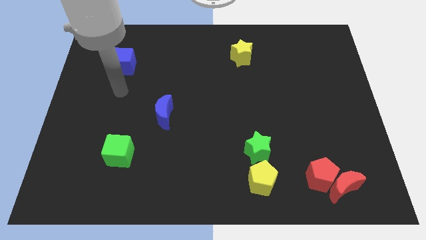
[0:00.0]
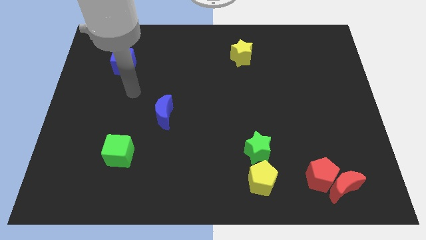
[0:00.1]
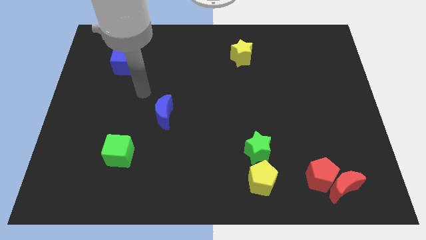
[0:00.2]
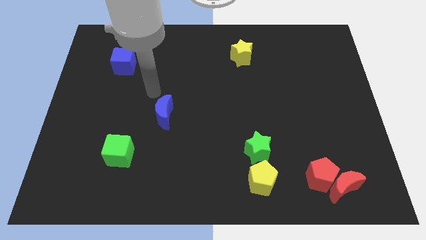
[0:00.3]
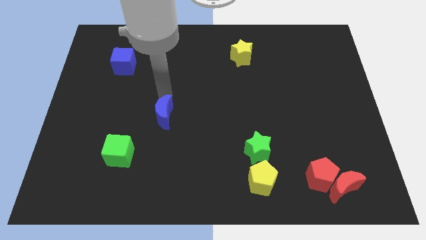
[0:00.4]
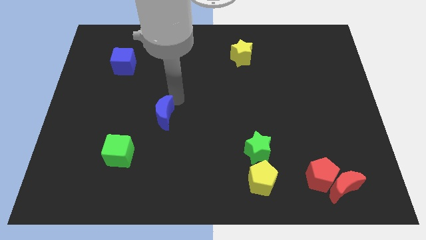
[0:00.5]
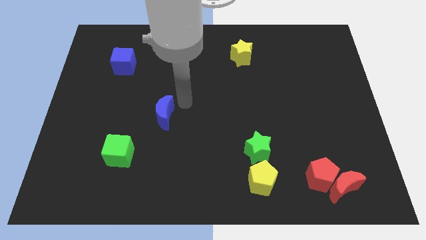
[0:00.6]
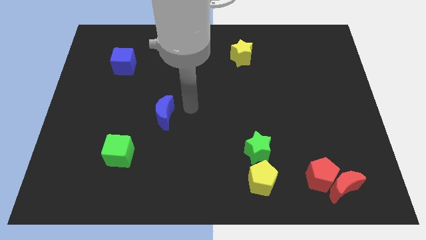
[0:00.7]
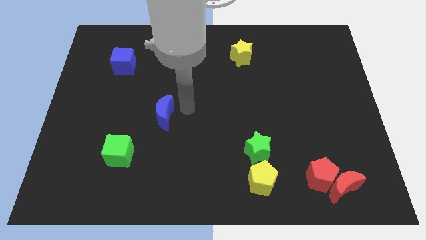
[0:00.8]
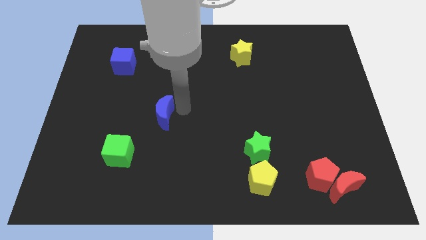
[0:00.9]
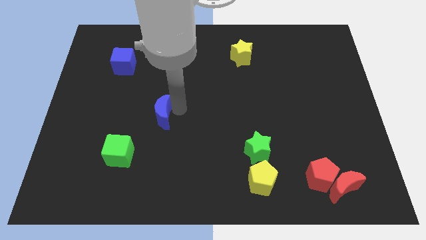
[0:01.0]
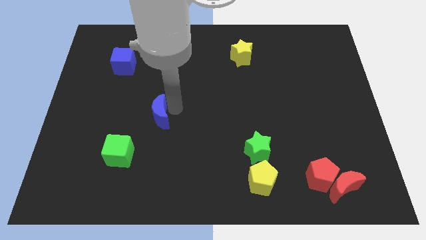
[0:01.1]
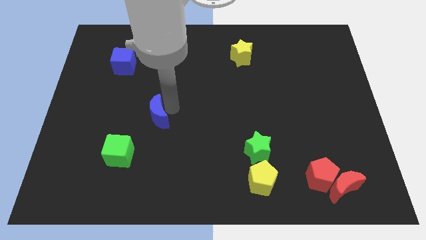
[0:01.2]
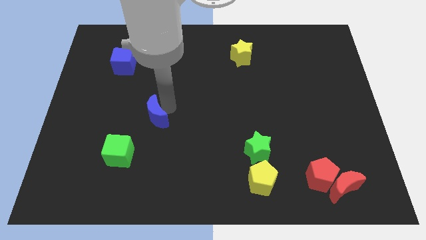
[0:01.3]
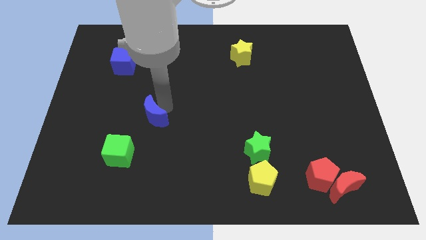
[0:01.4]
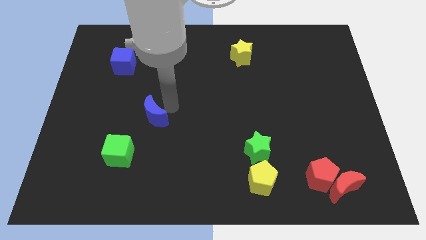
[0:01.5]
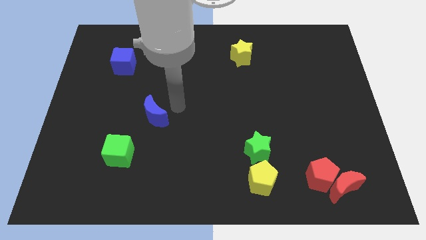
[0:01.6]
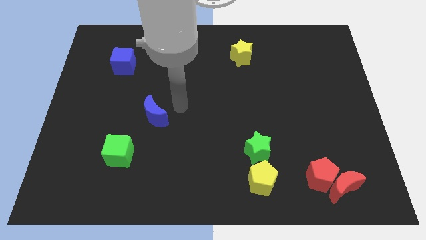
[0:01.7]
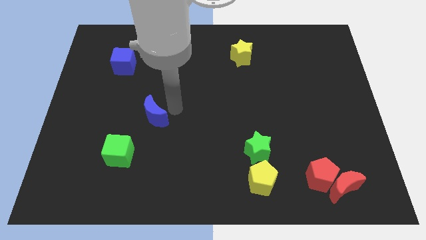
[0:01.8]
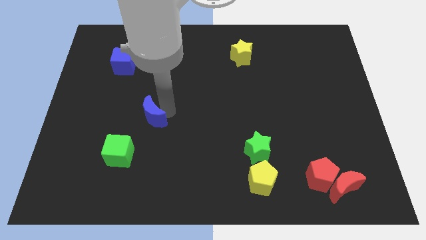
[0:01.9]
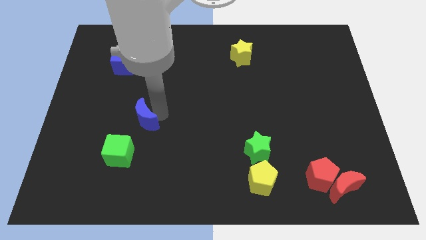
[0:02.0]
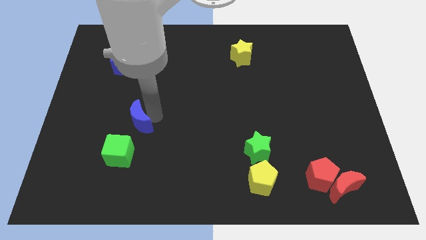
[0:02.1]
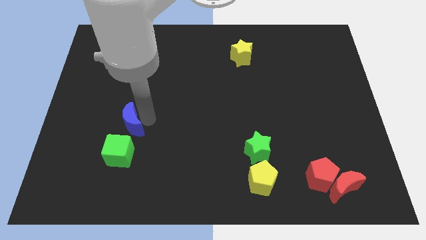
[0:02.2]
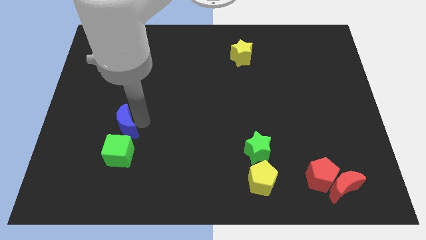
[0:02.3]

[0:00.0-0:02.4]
slide the blue moon a little bit down and left

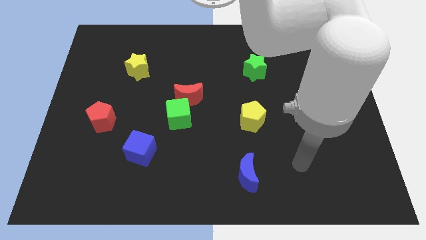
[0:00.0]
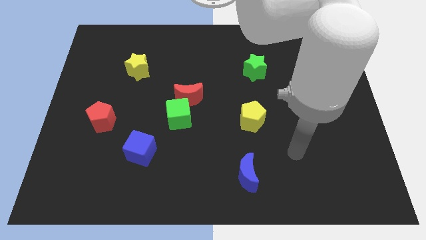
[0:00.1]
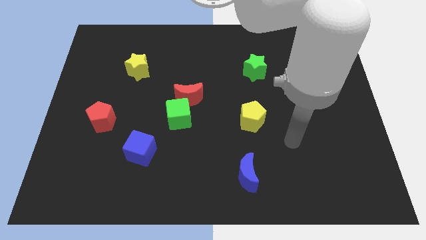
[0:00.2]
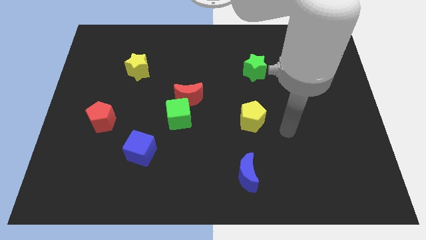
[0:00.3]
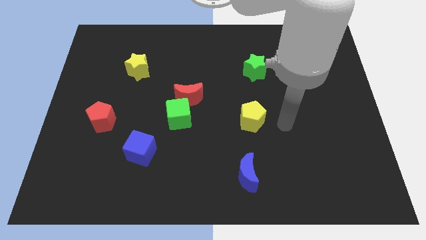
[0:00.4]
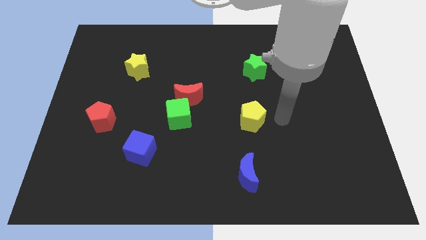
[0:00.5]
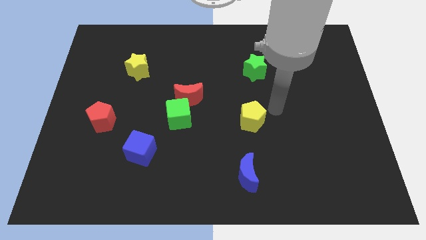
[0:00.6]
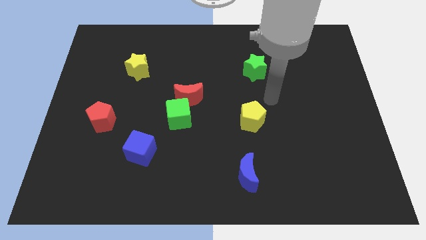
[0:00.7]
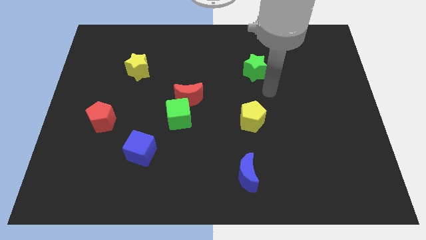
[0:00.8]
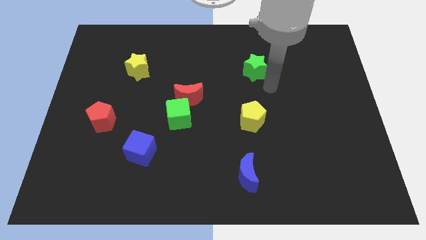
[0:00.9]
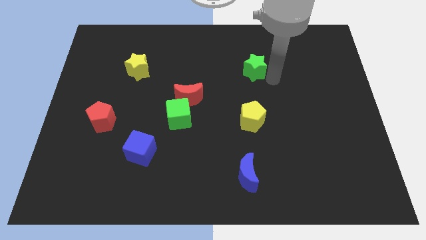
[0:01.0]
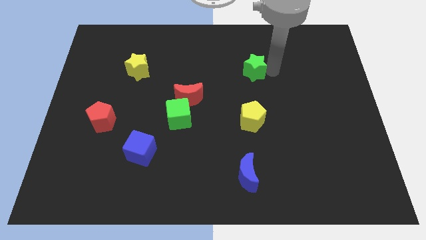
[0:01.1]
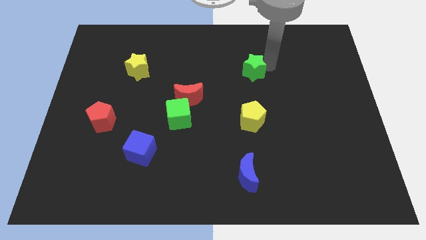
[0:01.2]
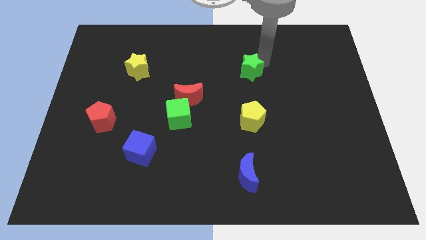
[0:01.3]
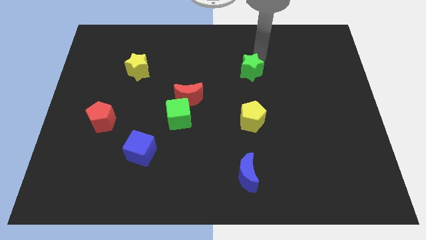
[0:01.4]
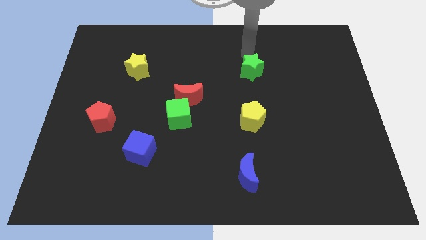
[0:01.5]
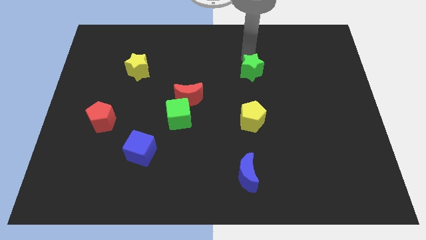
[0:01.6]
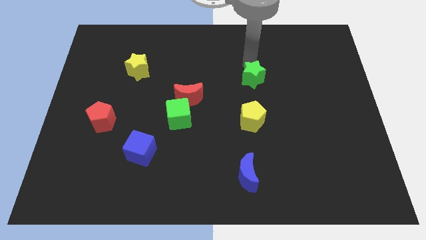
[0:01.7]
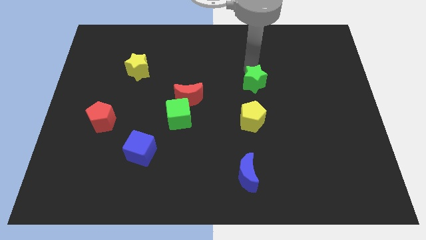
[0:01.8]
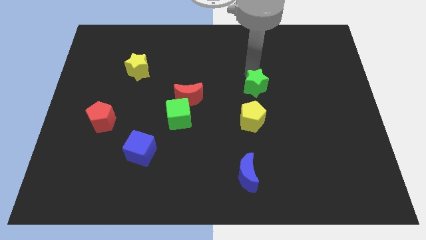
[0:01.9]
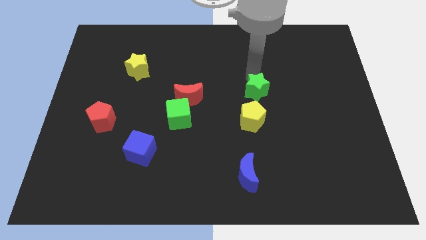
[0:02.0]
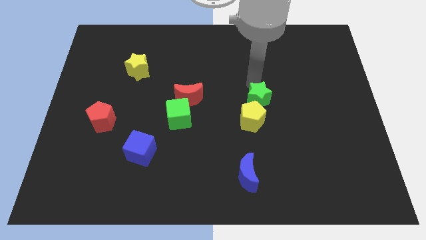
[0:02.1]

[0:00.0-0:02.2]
slightly slide the green star downwards

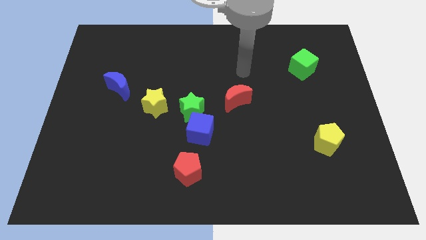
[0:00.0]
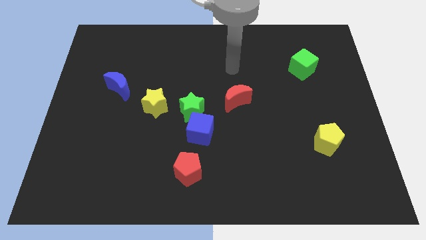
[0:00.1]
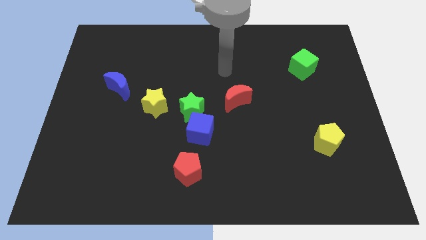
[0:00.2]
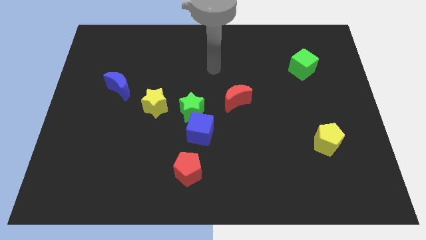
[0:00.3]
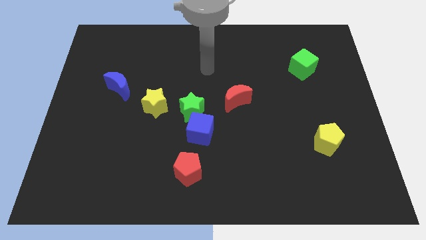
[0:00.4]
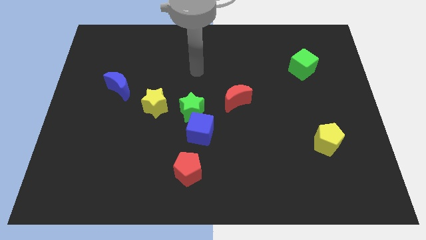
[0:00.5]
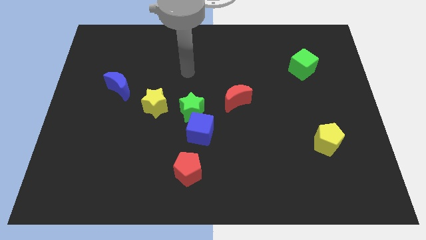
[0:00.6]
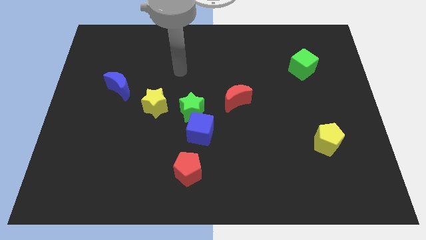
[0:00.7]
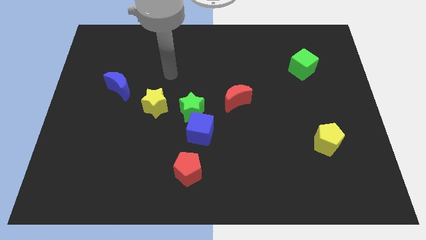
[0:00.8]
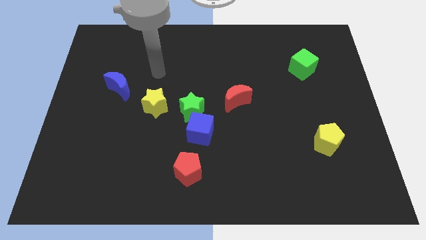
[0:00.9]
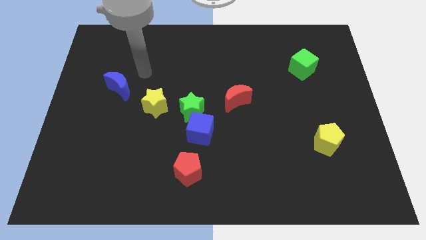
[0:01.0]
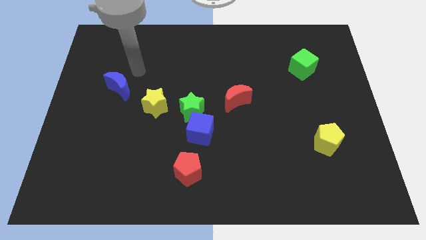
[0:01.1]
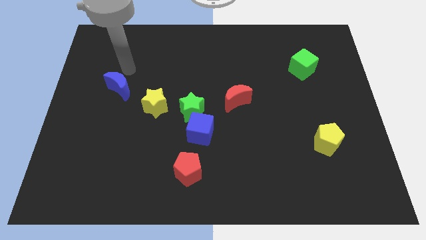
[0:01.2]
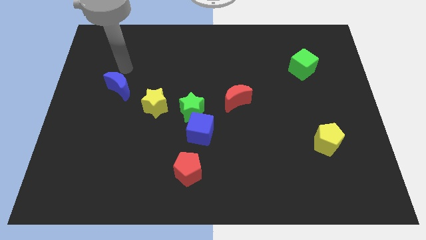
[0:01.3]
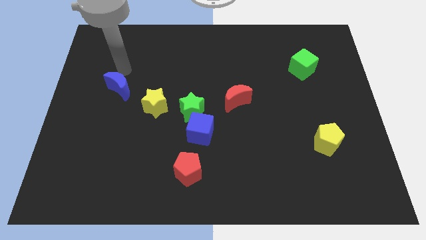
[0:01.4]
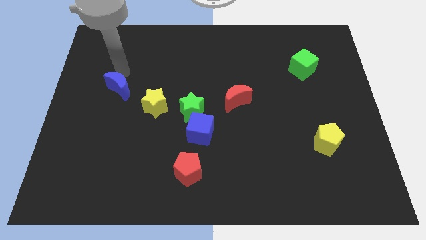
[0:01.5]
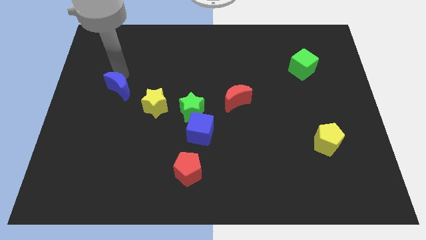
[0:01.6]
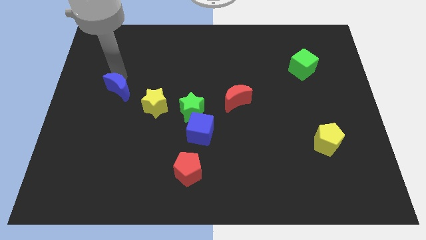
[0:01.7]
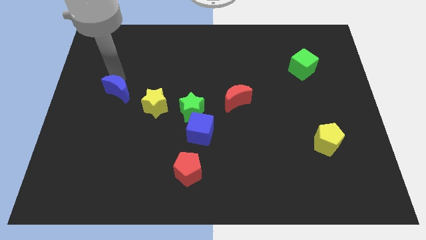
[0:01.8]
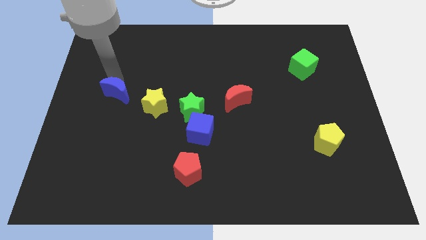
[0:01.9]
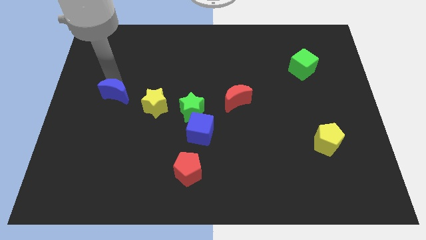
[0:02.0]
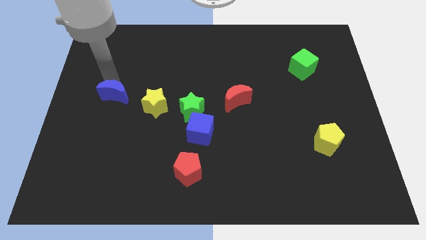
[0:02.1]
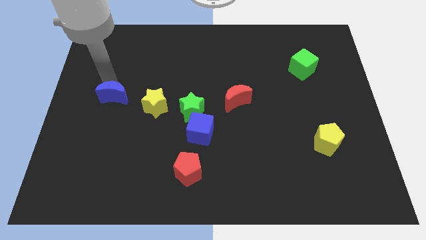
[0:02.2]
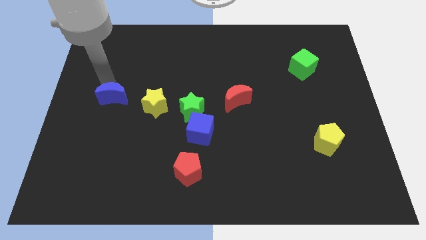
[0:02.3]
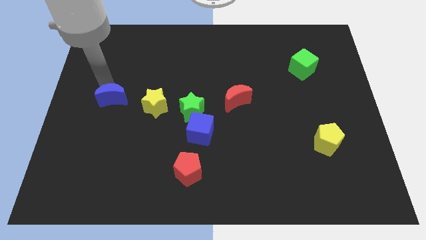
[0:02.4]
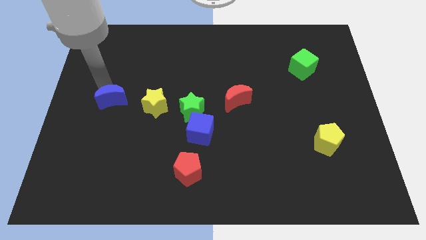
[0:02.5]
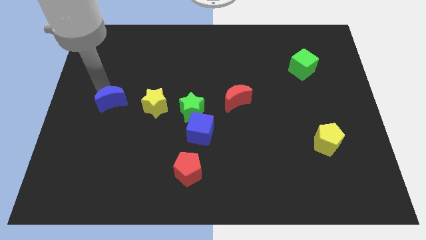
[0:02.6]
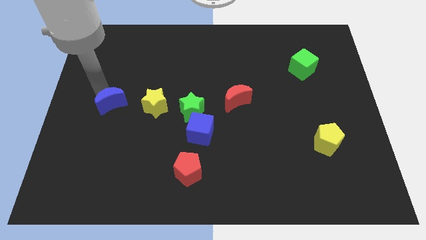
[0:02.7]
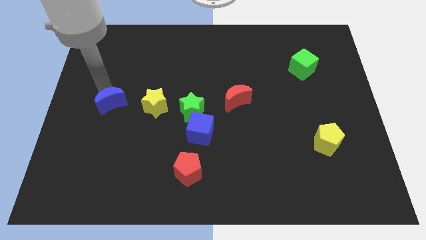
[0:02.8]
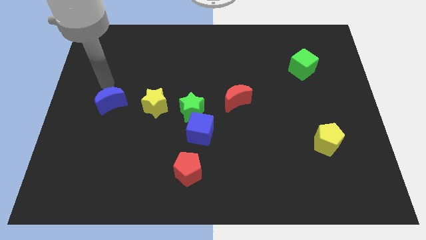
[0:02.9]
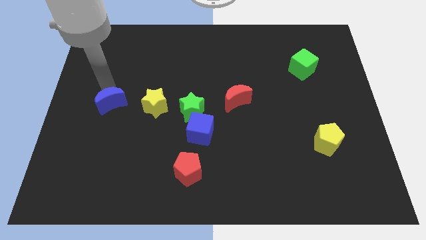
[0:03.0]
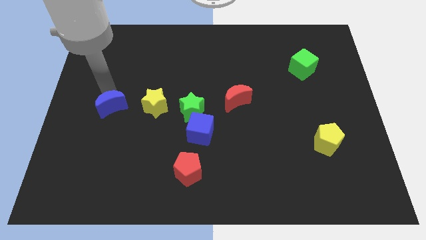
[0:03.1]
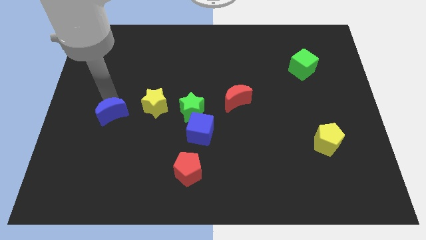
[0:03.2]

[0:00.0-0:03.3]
slightly move the blue moon downwards

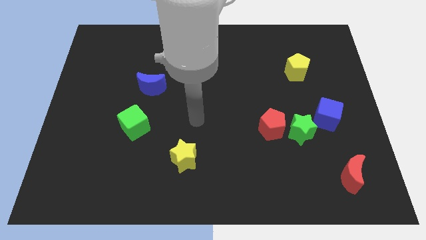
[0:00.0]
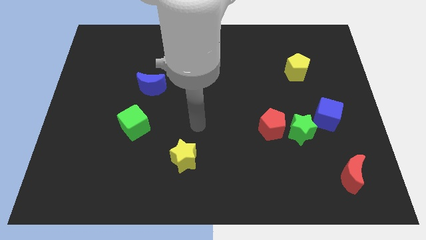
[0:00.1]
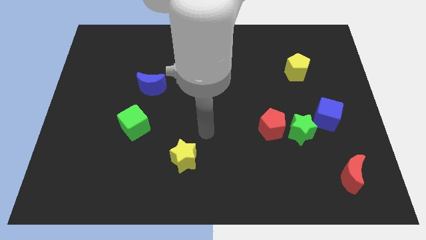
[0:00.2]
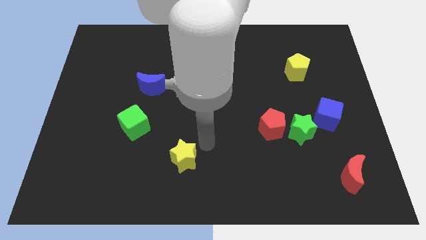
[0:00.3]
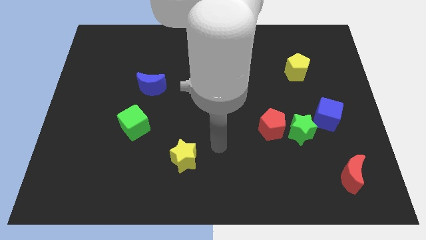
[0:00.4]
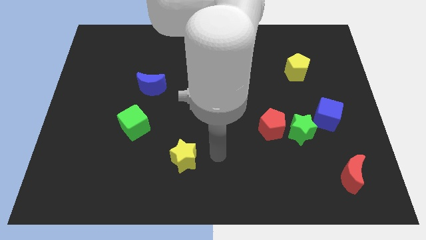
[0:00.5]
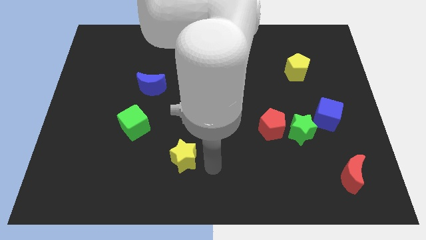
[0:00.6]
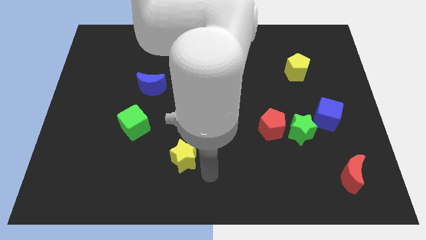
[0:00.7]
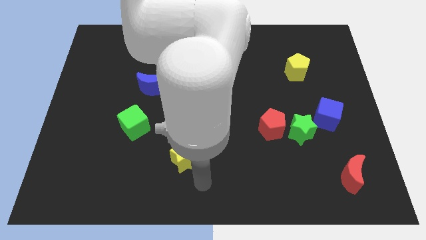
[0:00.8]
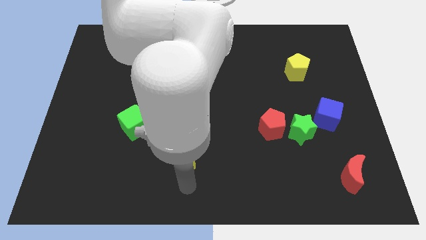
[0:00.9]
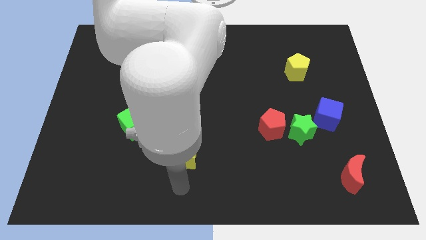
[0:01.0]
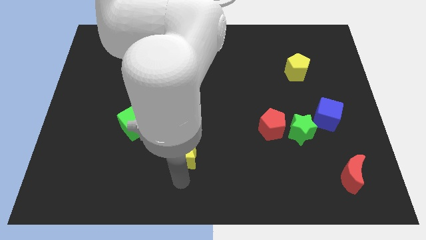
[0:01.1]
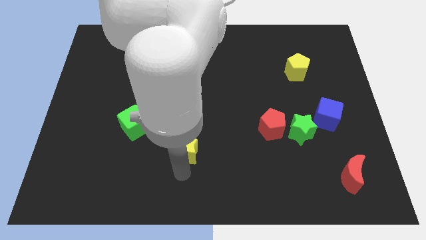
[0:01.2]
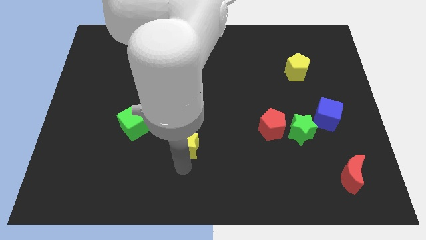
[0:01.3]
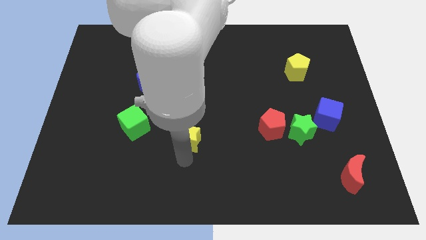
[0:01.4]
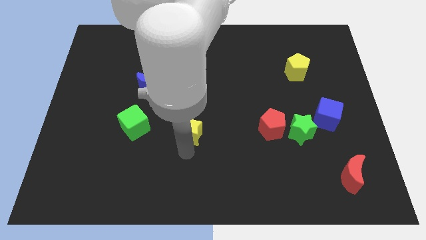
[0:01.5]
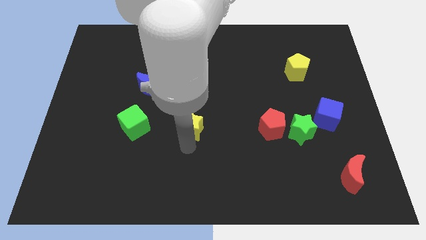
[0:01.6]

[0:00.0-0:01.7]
slide the yellow star slightly upwards
